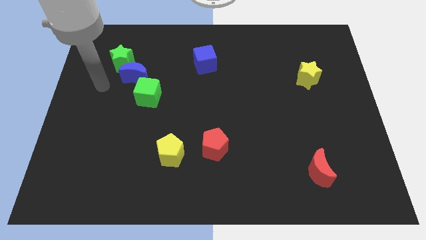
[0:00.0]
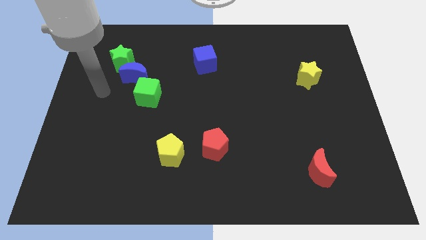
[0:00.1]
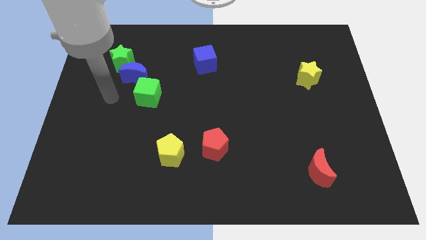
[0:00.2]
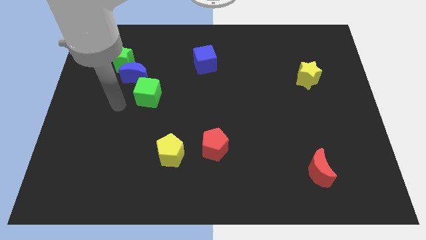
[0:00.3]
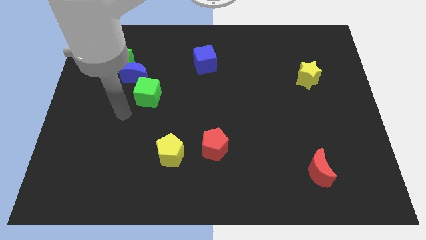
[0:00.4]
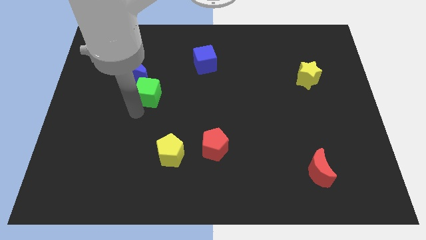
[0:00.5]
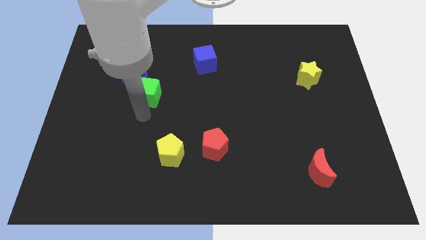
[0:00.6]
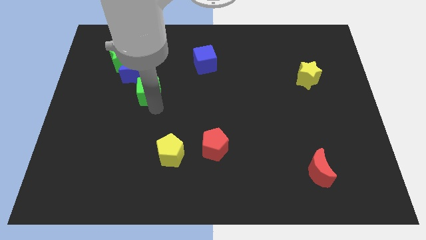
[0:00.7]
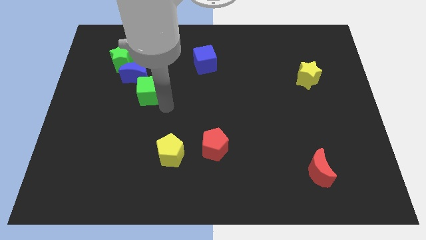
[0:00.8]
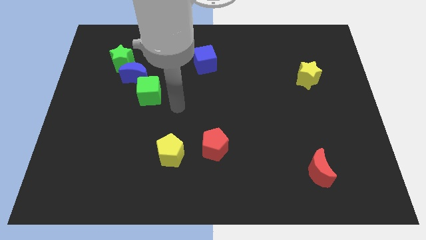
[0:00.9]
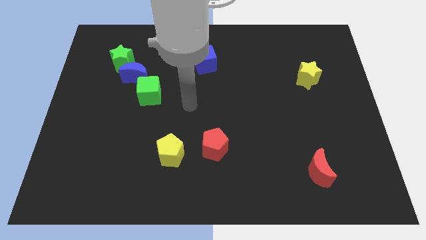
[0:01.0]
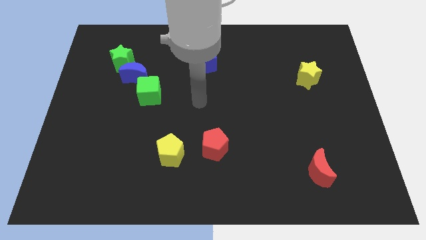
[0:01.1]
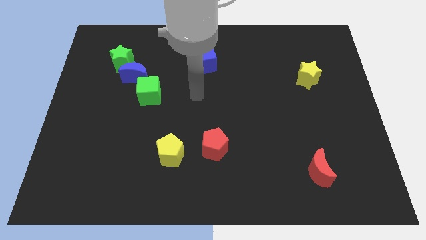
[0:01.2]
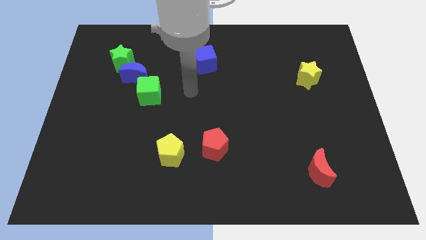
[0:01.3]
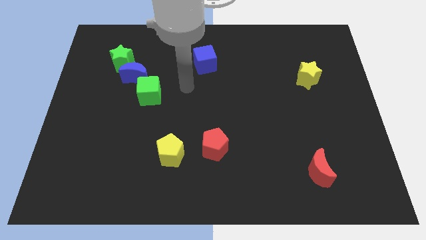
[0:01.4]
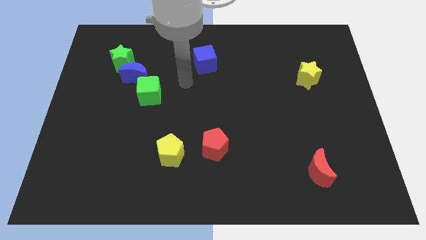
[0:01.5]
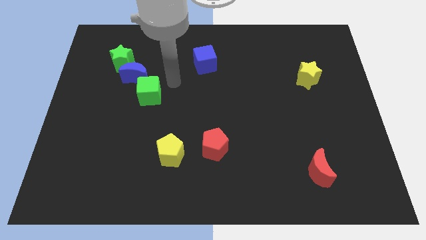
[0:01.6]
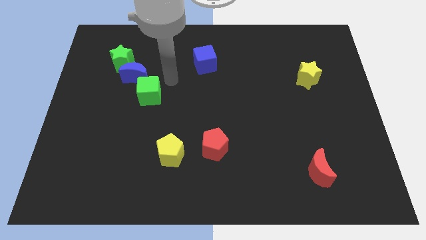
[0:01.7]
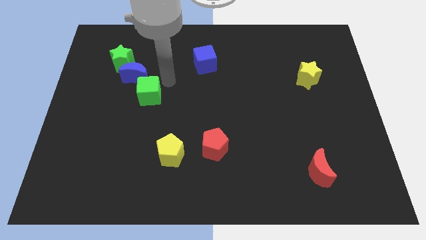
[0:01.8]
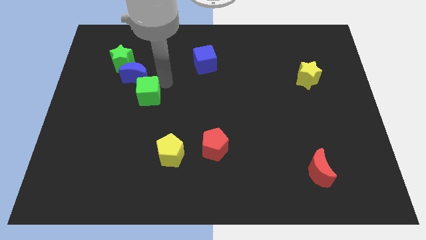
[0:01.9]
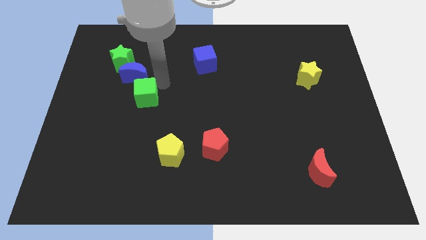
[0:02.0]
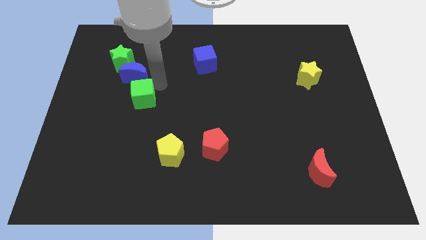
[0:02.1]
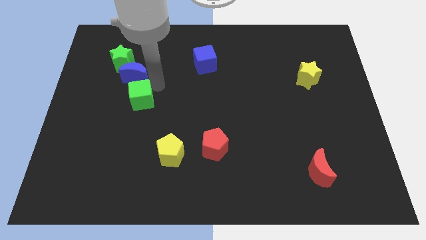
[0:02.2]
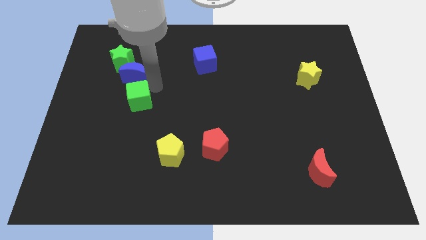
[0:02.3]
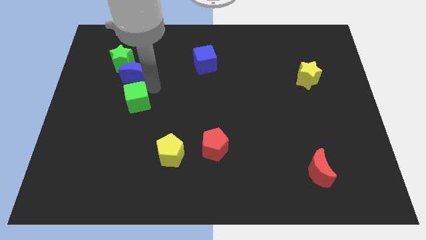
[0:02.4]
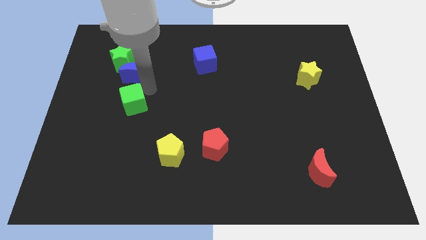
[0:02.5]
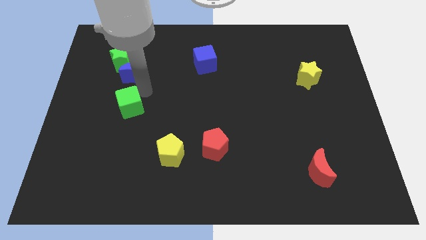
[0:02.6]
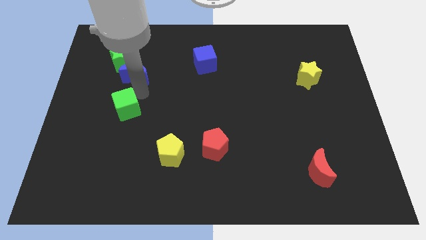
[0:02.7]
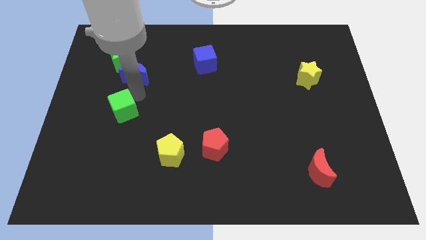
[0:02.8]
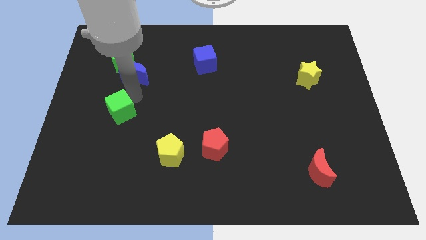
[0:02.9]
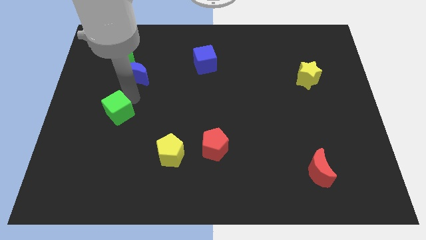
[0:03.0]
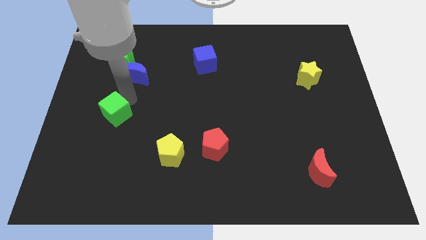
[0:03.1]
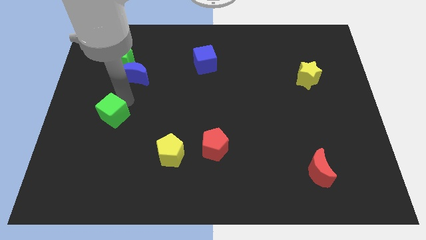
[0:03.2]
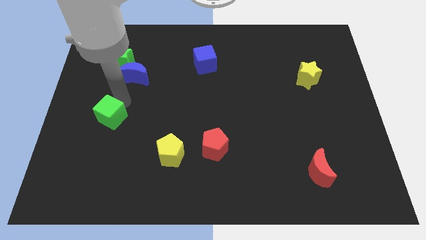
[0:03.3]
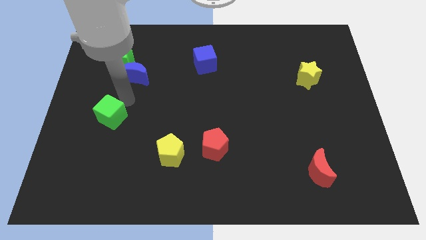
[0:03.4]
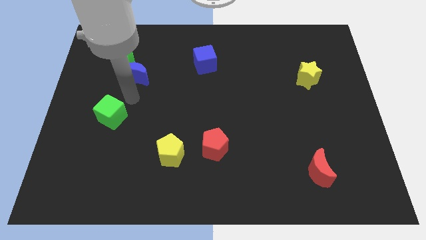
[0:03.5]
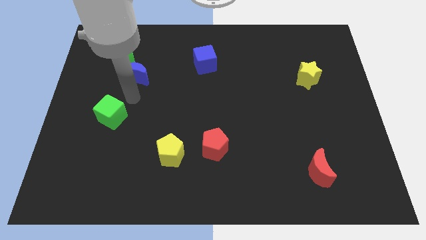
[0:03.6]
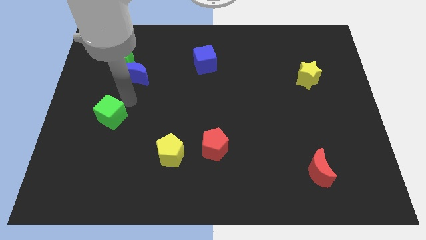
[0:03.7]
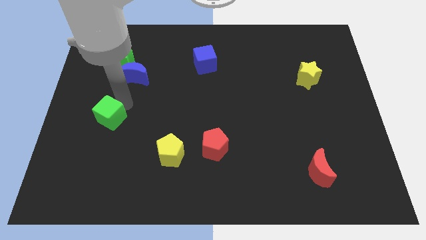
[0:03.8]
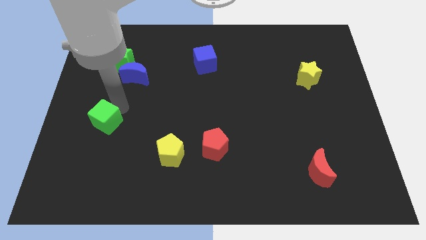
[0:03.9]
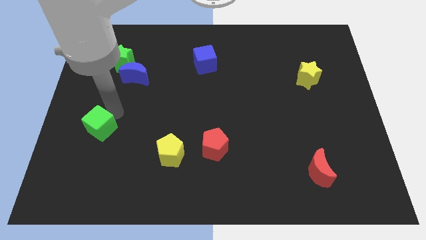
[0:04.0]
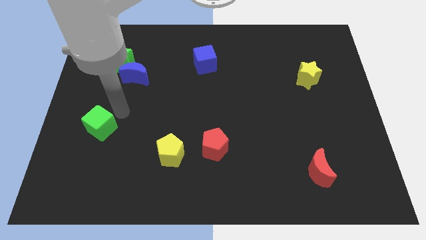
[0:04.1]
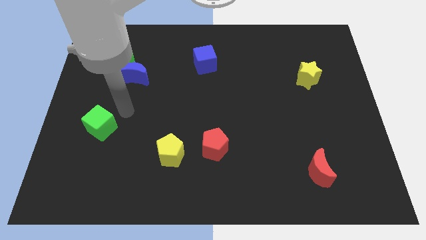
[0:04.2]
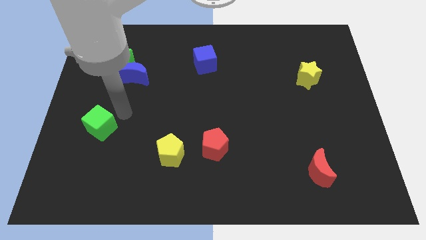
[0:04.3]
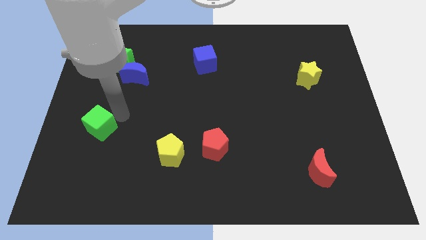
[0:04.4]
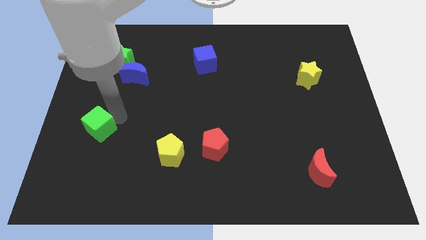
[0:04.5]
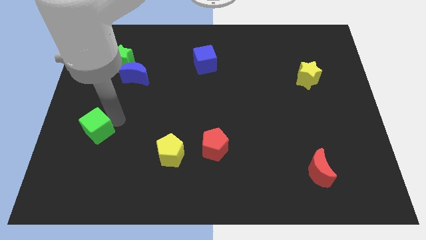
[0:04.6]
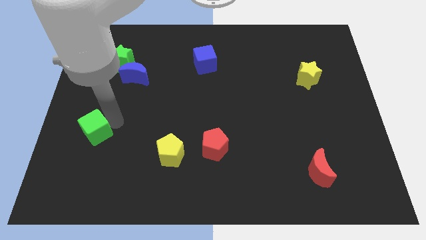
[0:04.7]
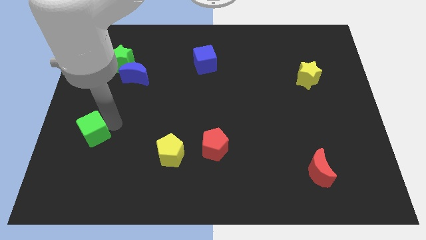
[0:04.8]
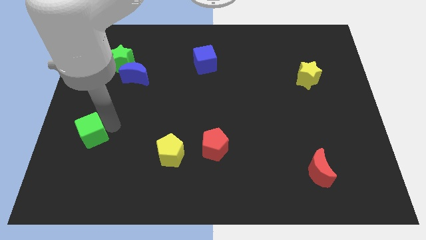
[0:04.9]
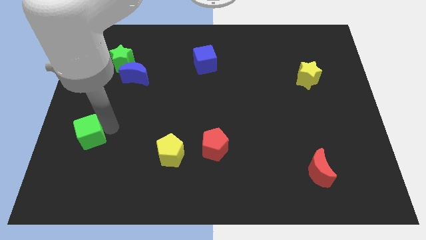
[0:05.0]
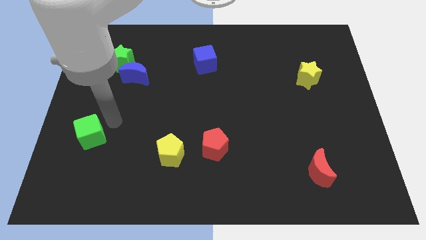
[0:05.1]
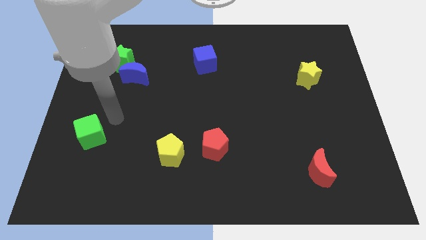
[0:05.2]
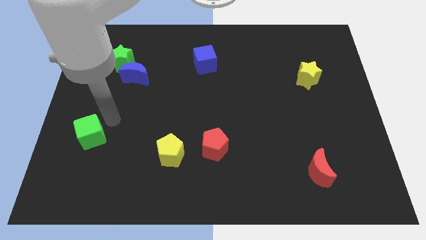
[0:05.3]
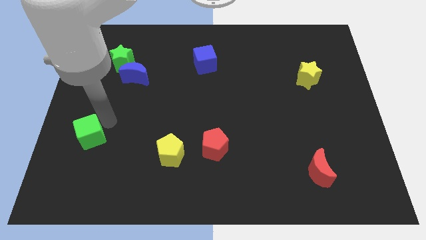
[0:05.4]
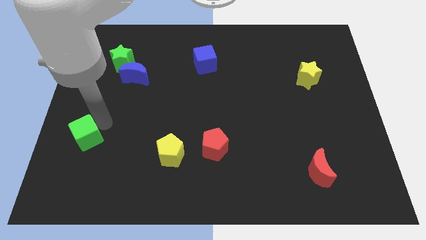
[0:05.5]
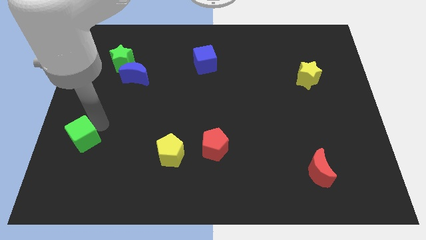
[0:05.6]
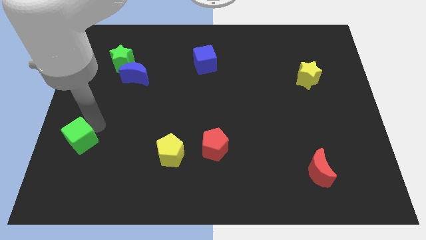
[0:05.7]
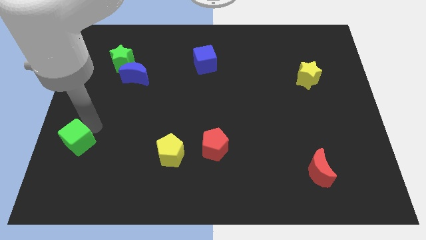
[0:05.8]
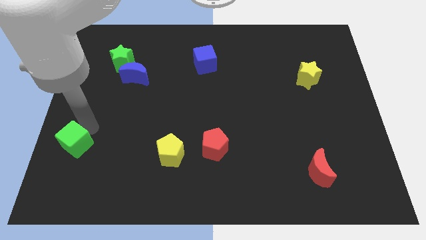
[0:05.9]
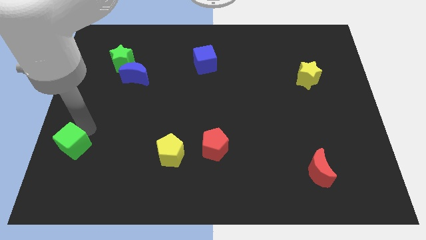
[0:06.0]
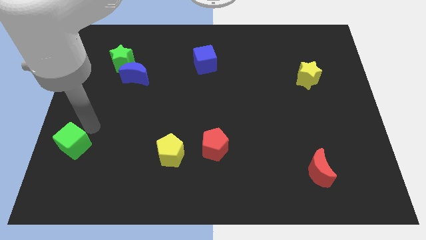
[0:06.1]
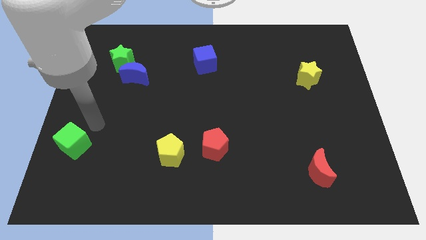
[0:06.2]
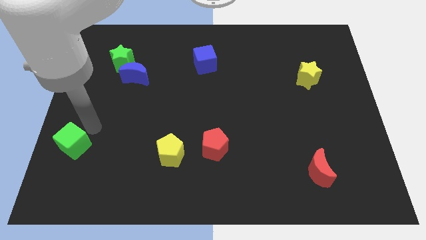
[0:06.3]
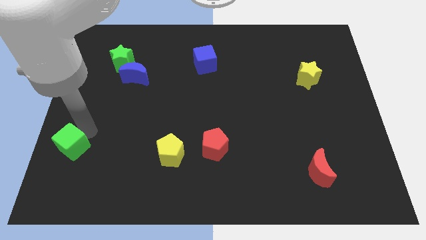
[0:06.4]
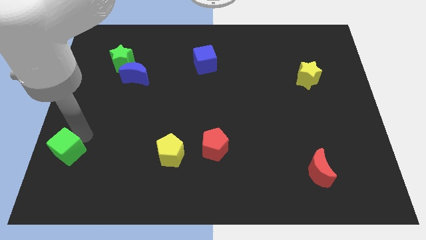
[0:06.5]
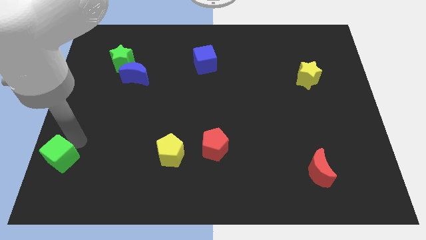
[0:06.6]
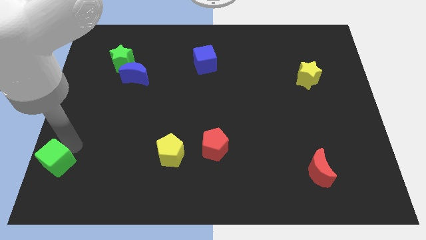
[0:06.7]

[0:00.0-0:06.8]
slide the green cube to the bottom left

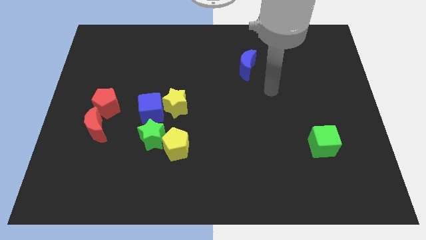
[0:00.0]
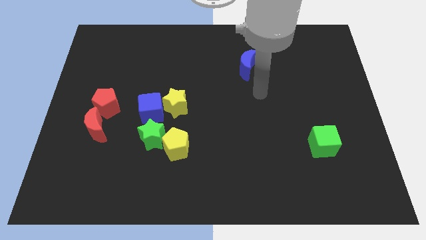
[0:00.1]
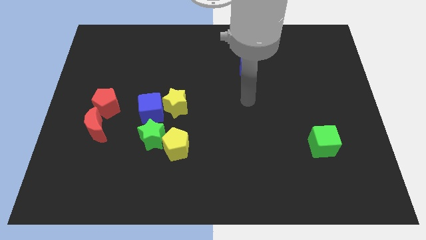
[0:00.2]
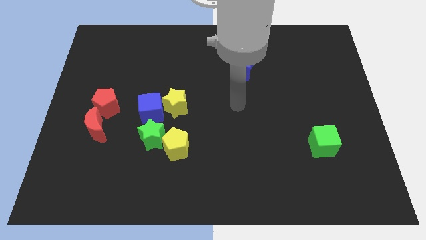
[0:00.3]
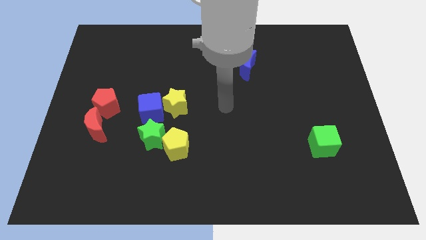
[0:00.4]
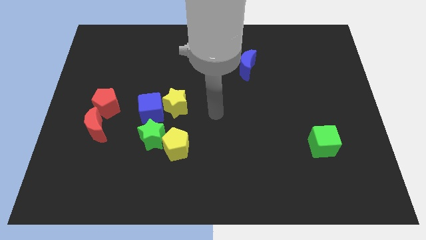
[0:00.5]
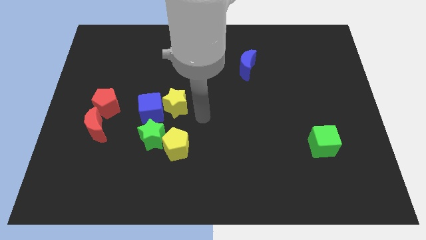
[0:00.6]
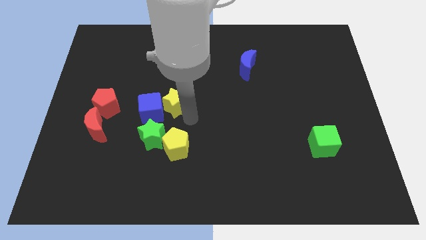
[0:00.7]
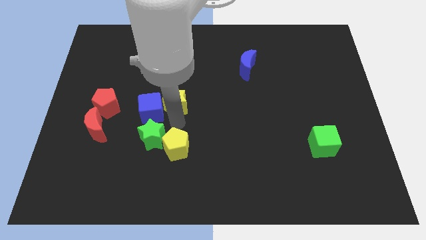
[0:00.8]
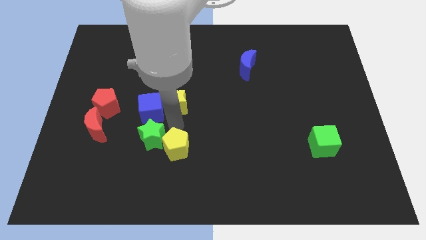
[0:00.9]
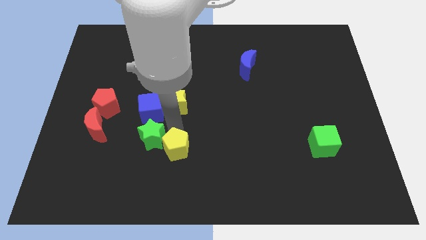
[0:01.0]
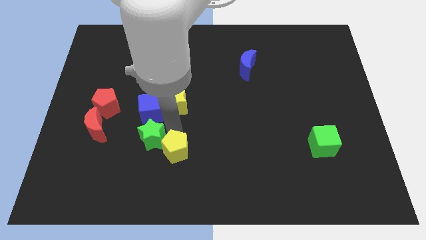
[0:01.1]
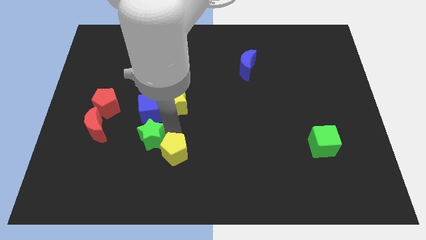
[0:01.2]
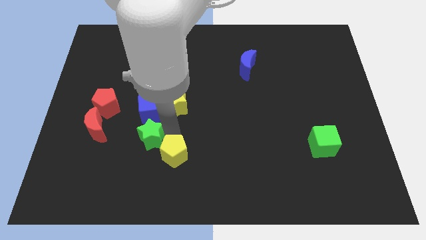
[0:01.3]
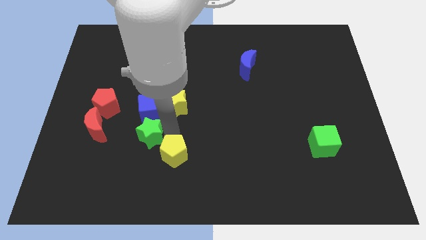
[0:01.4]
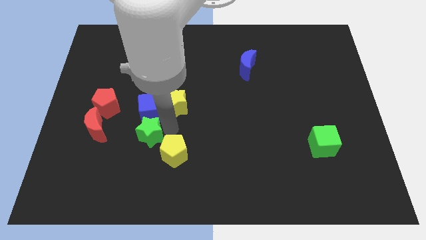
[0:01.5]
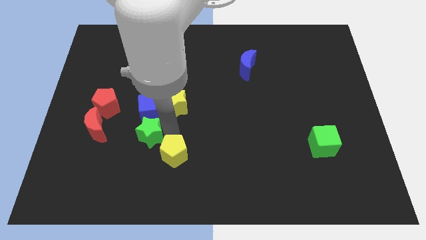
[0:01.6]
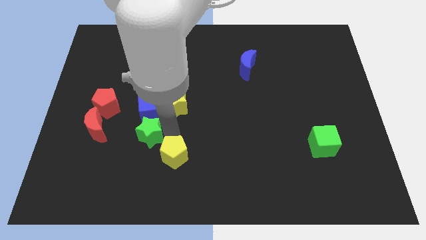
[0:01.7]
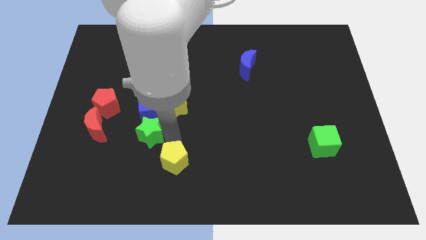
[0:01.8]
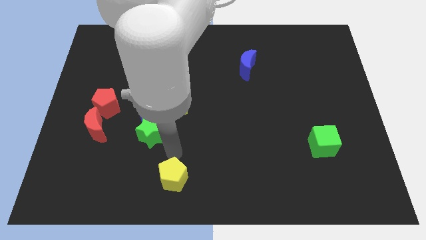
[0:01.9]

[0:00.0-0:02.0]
put the yellow pentagon to the bottom
